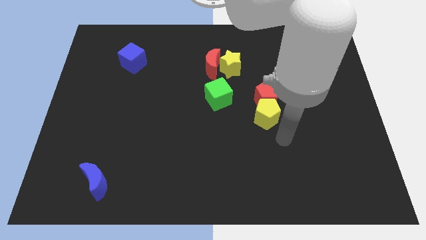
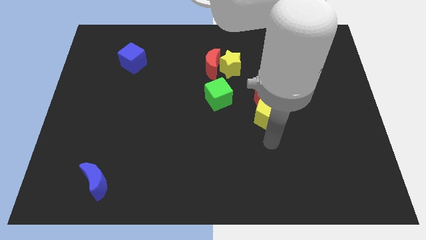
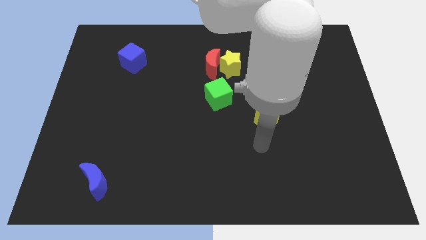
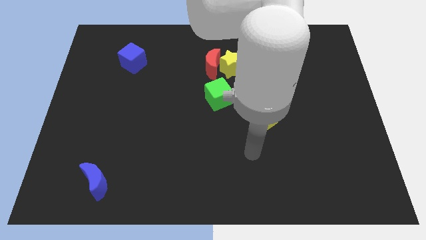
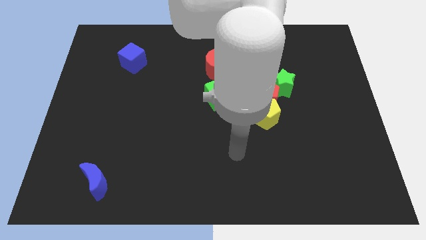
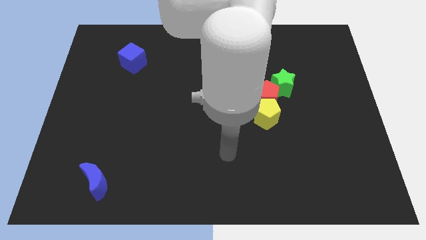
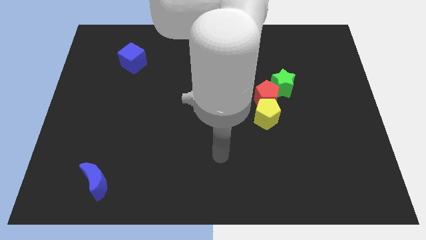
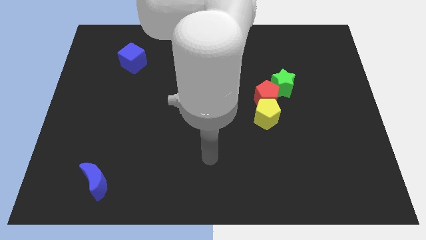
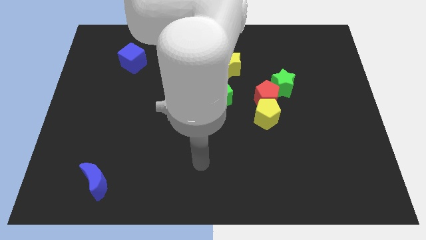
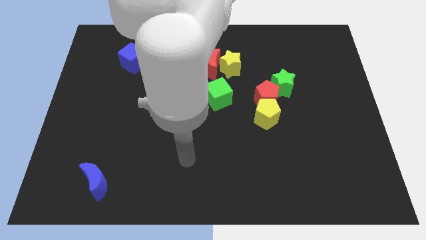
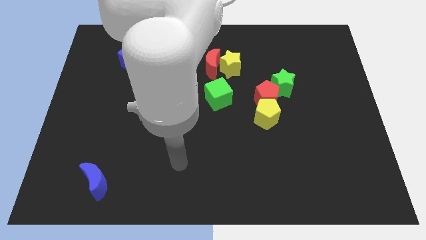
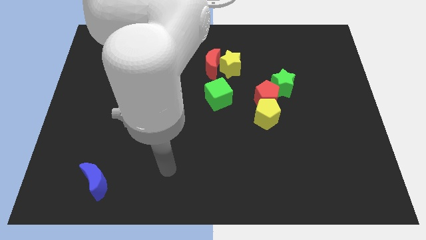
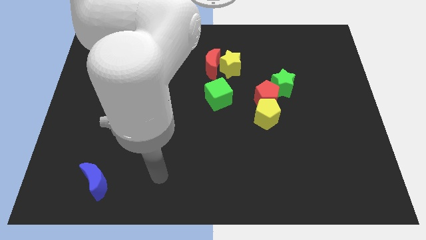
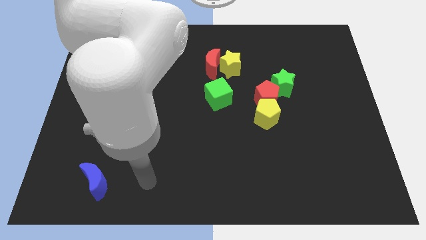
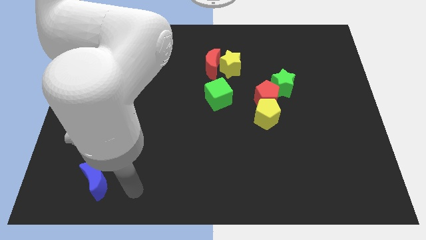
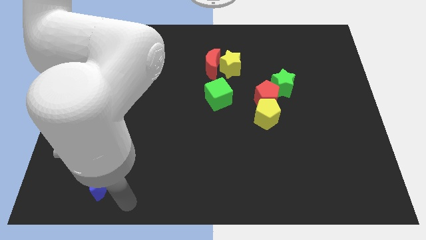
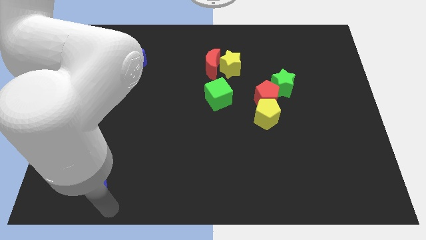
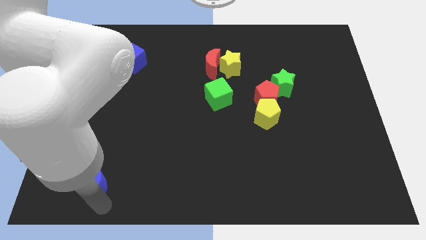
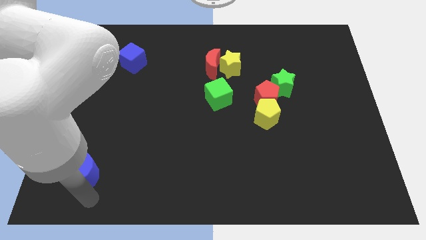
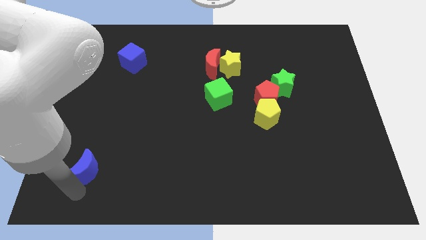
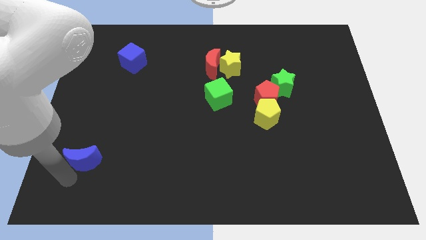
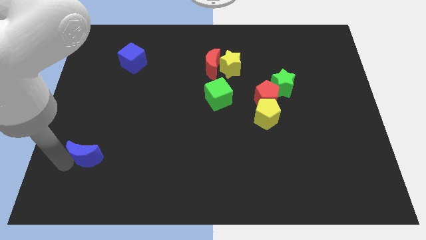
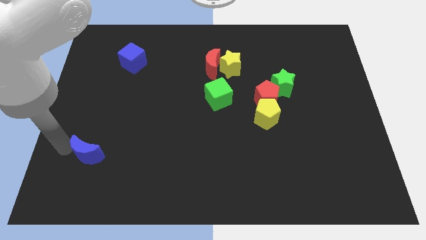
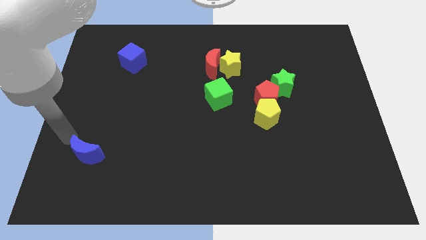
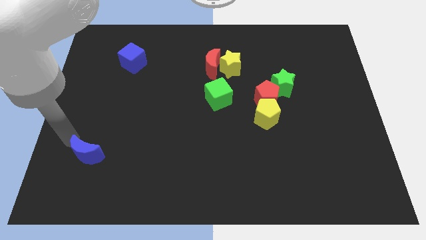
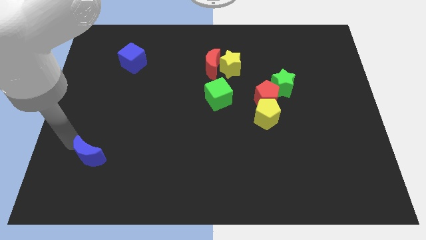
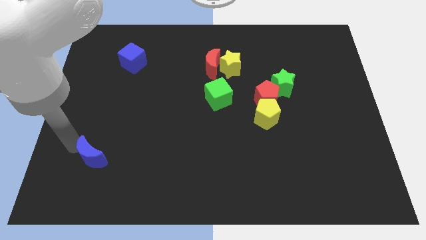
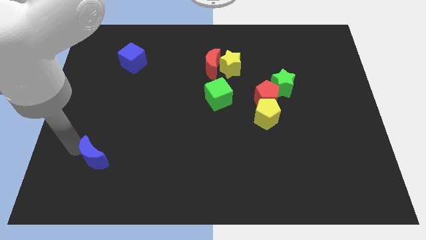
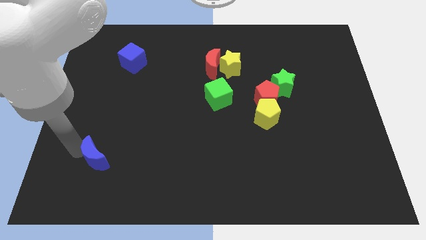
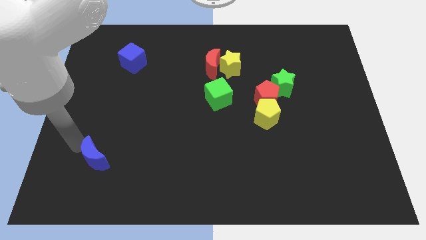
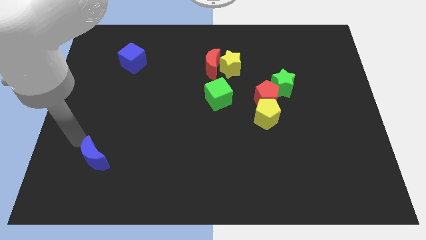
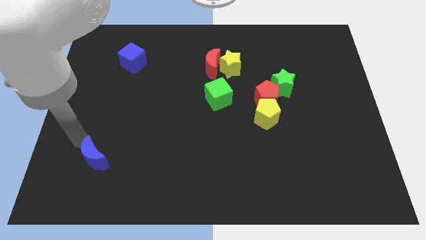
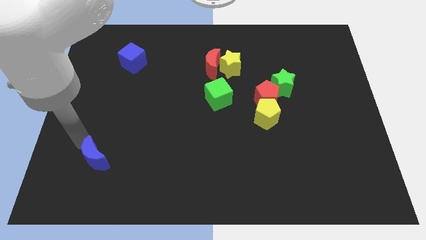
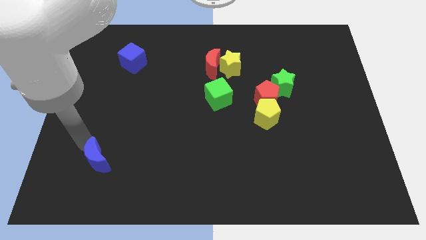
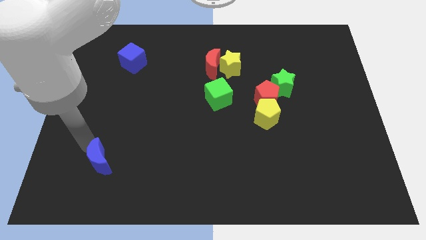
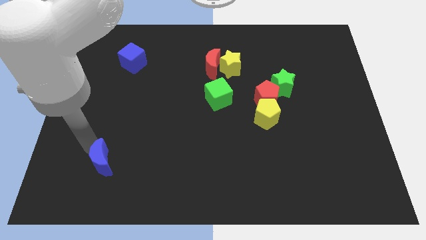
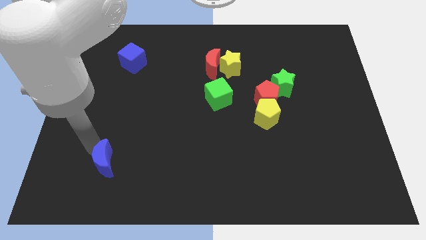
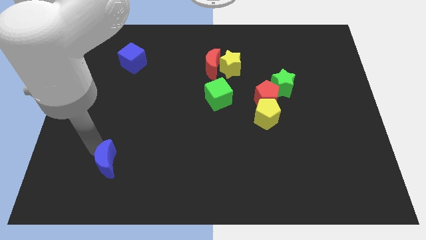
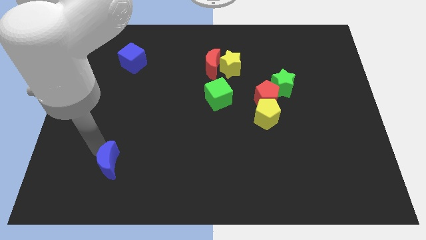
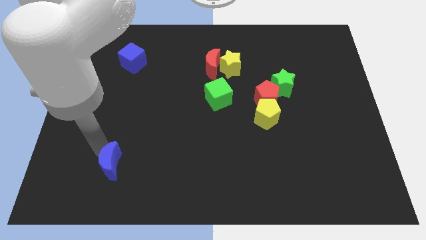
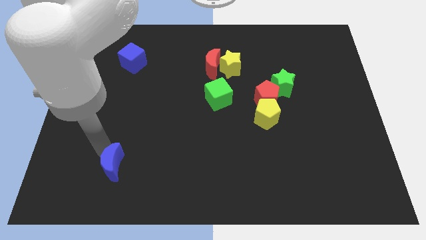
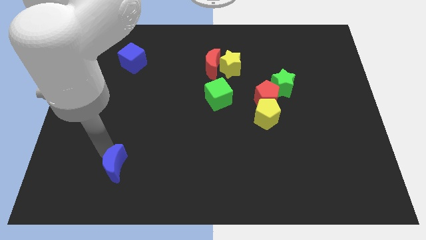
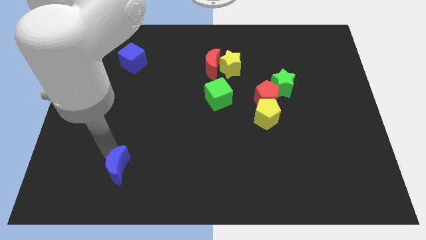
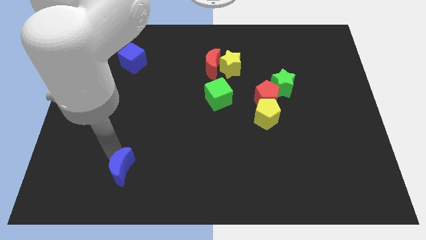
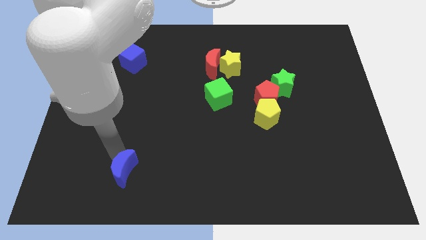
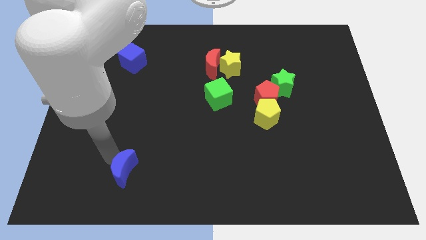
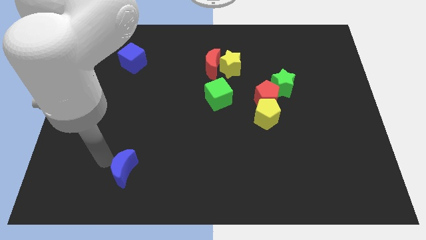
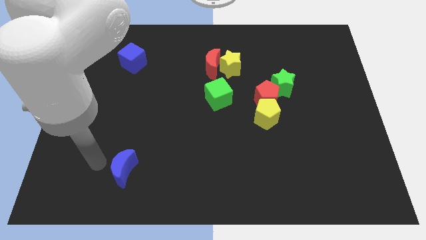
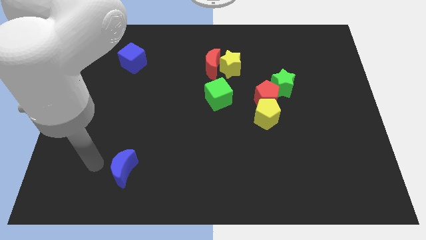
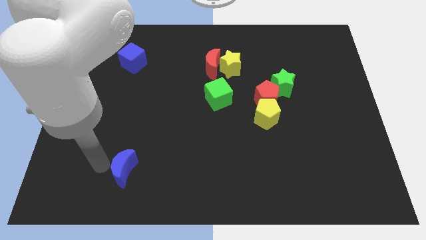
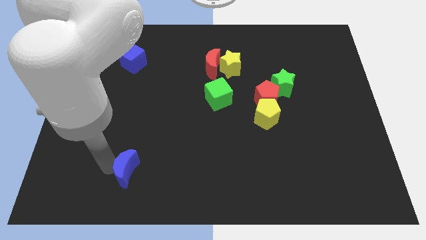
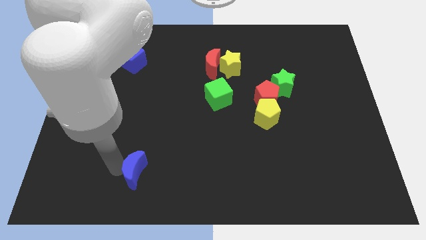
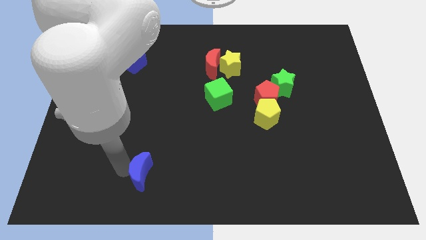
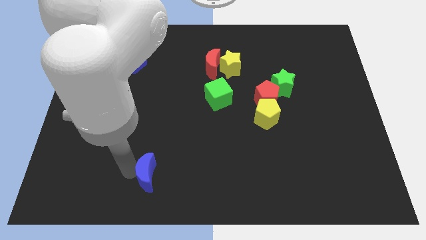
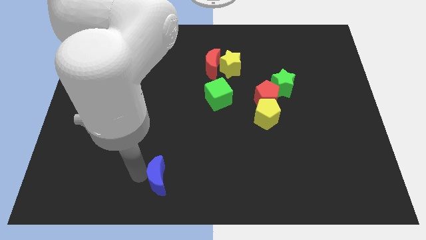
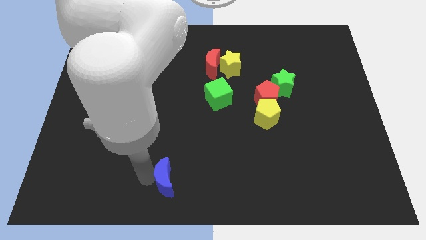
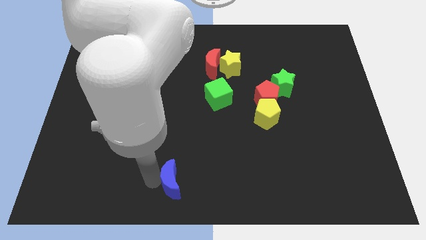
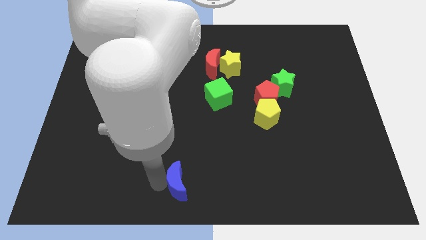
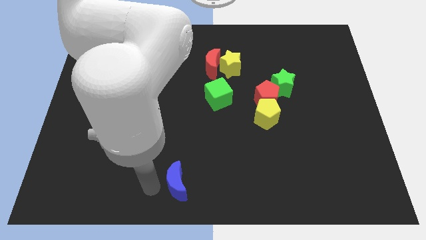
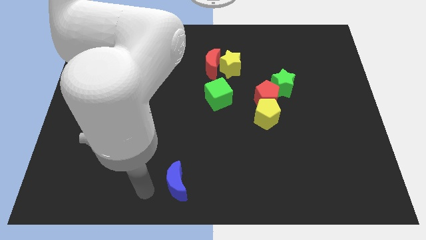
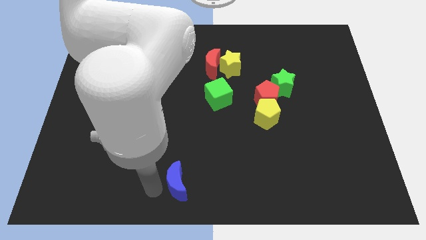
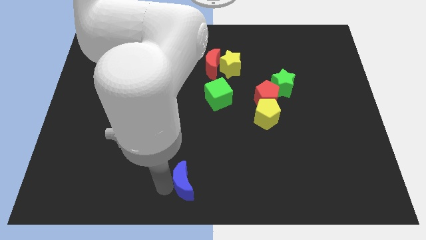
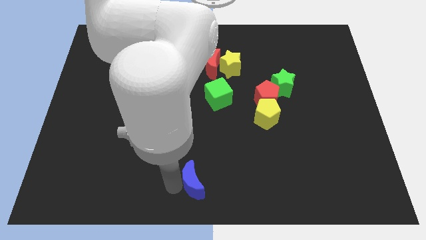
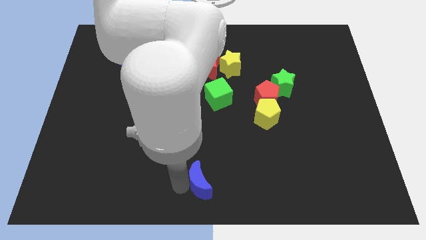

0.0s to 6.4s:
push the blue moon to the right

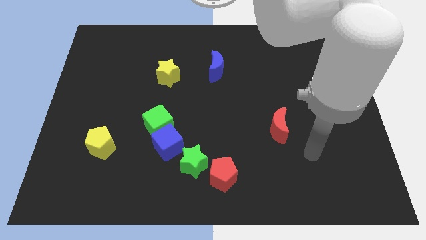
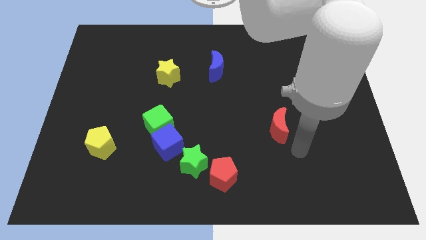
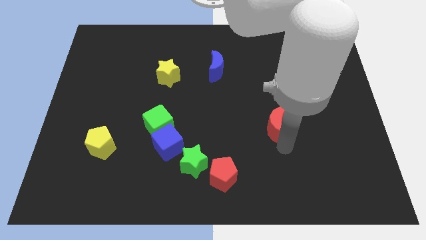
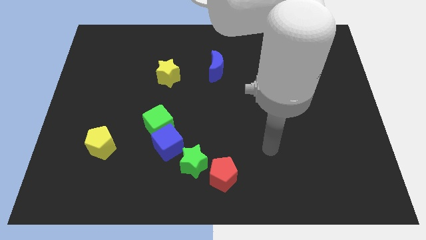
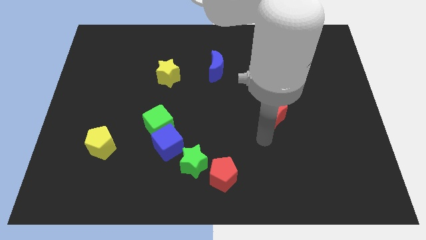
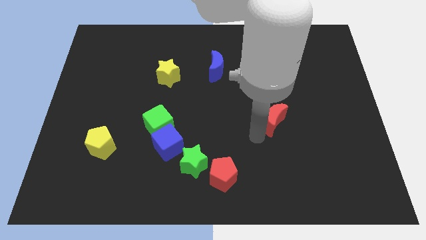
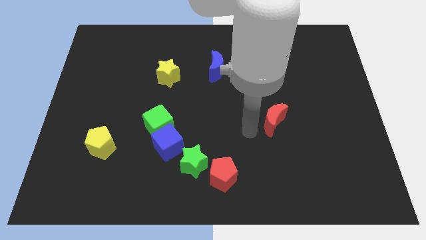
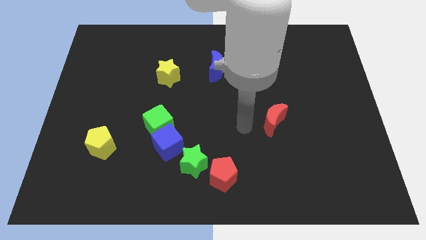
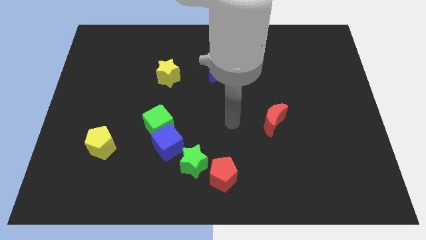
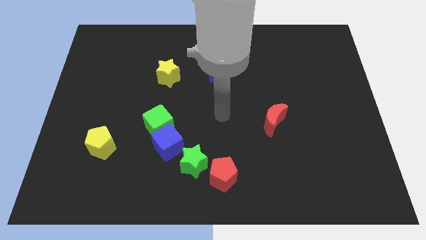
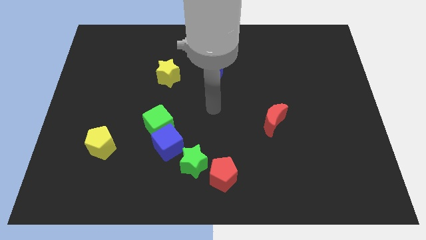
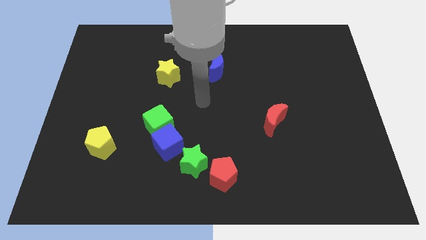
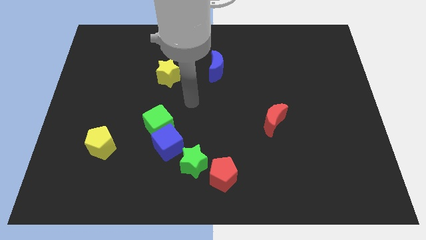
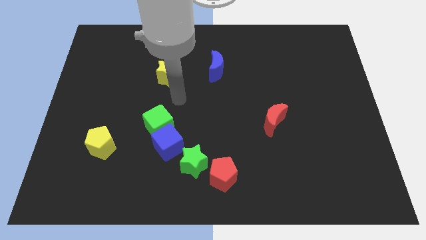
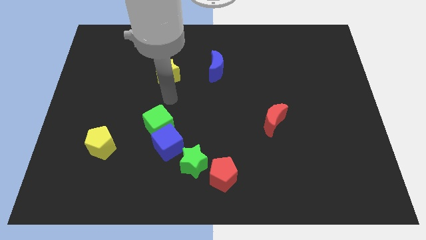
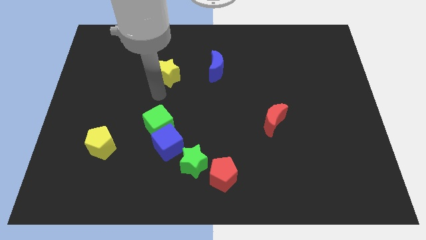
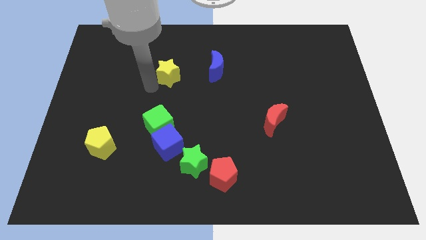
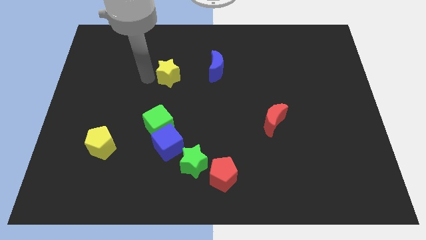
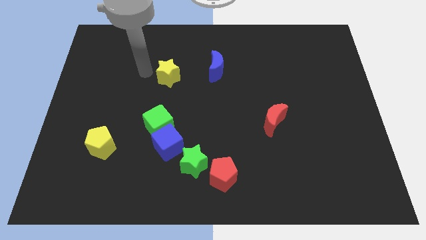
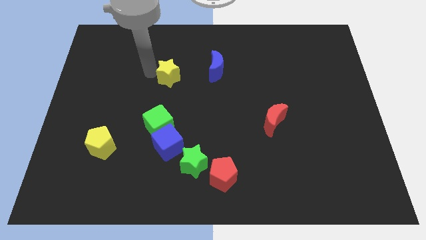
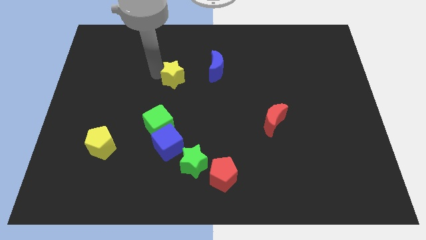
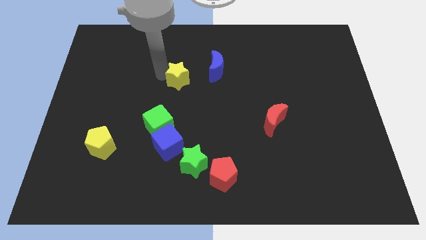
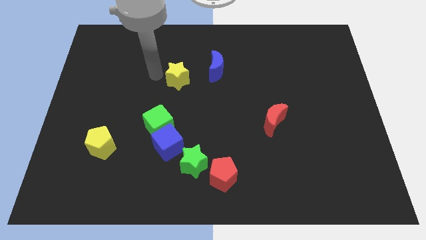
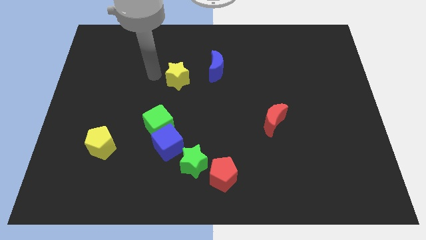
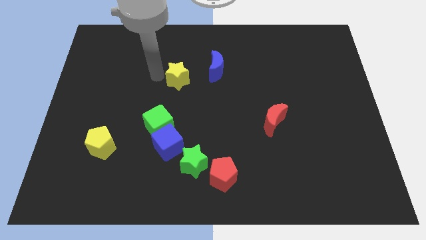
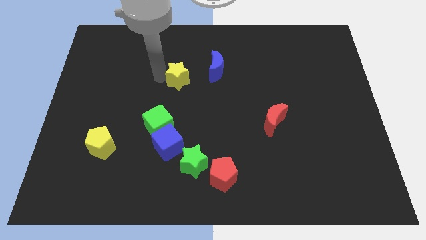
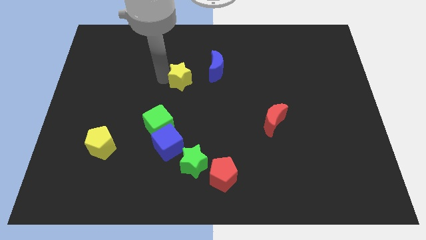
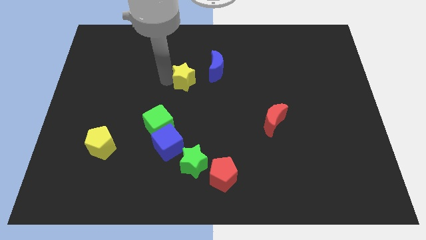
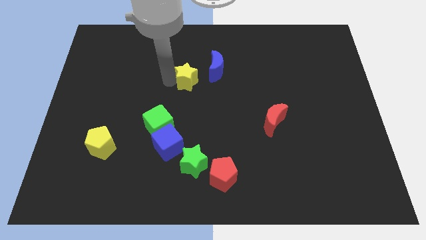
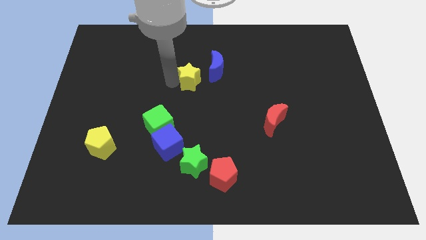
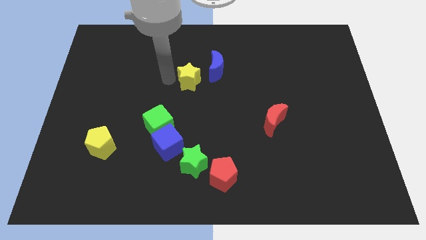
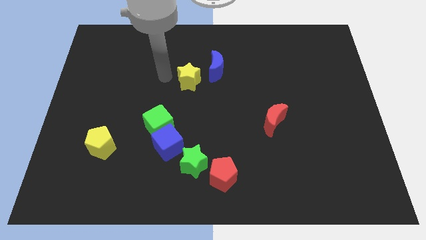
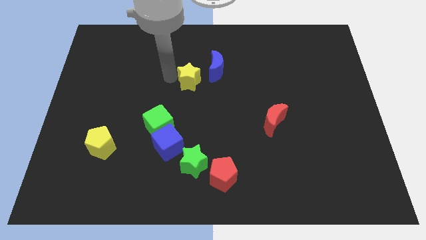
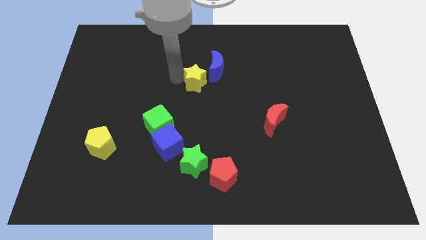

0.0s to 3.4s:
slightly move the yellow star right
